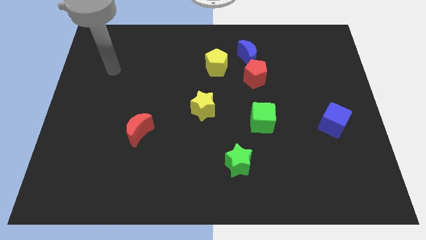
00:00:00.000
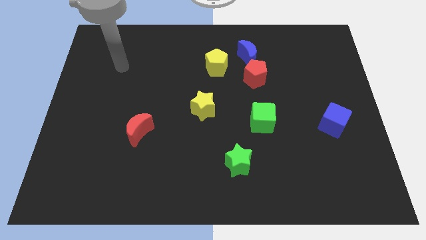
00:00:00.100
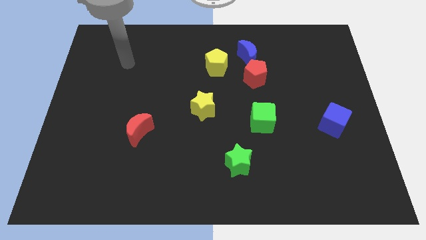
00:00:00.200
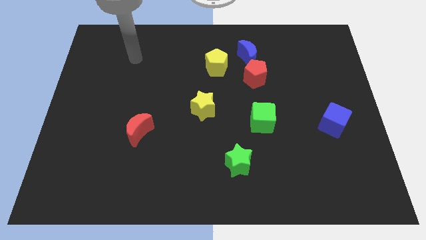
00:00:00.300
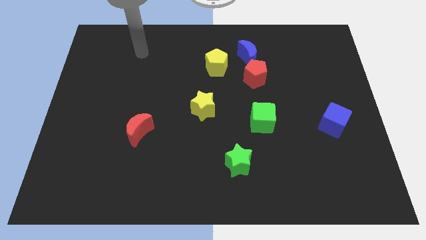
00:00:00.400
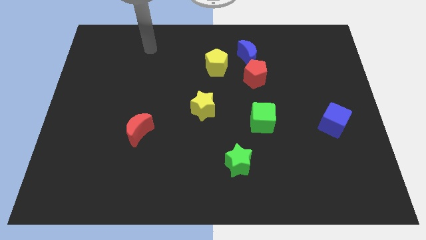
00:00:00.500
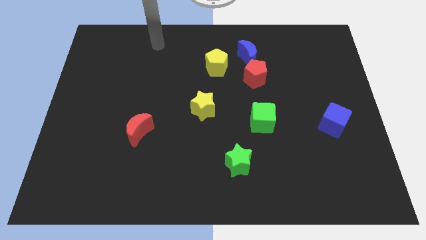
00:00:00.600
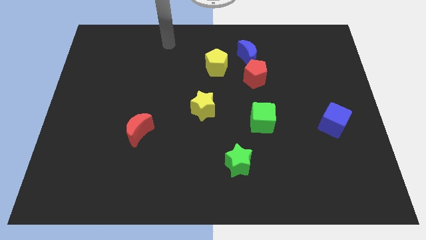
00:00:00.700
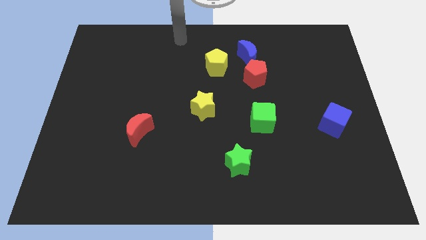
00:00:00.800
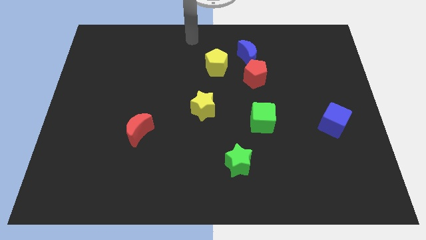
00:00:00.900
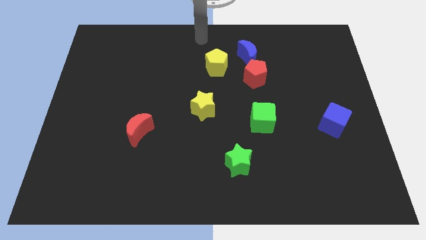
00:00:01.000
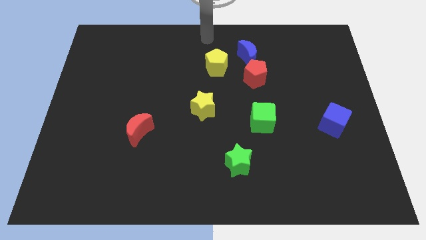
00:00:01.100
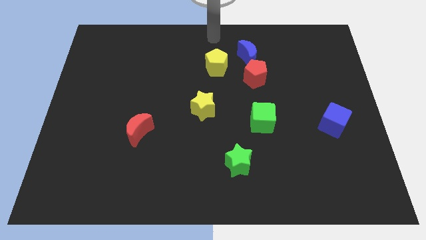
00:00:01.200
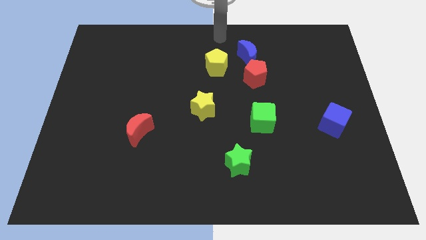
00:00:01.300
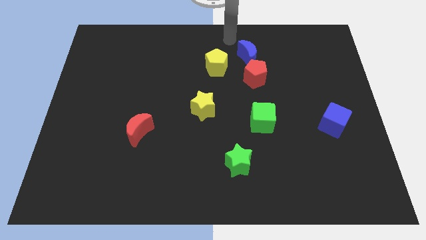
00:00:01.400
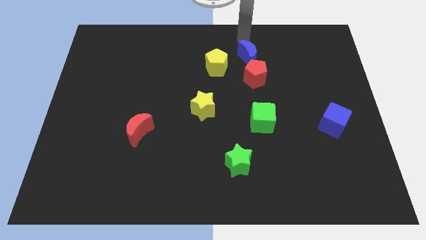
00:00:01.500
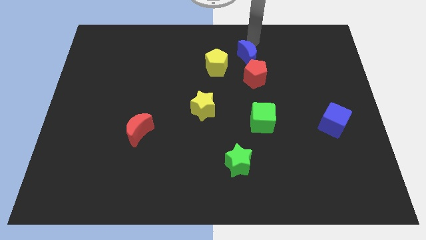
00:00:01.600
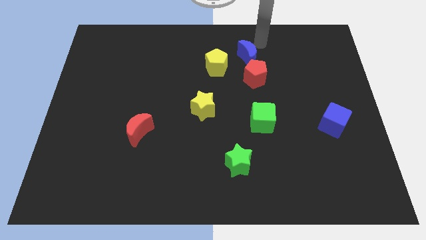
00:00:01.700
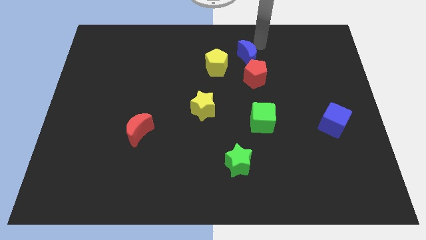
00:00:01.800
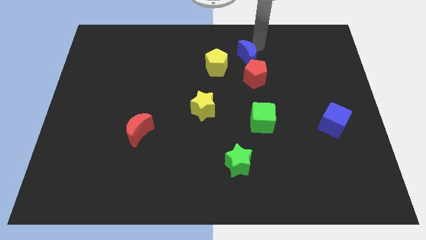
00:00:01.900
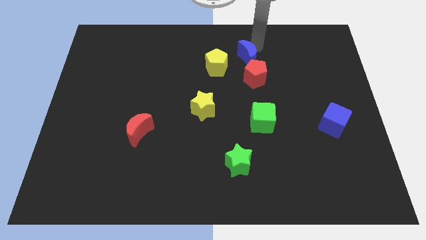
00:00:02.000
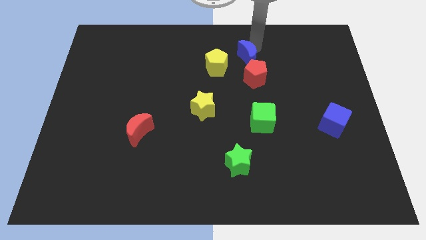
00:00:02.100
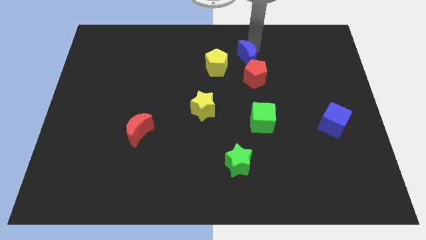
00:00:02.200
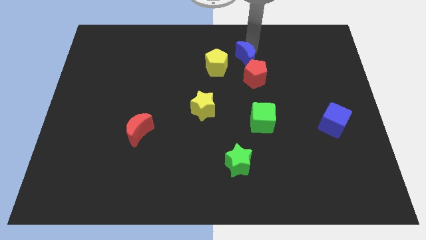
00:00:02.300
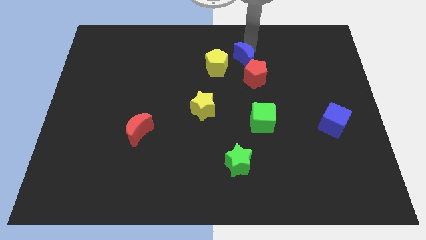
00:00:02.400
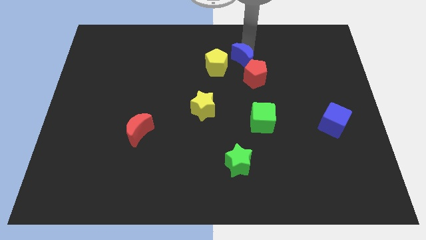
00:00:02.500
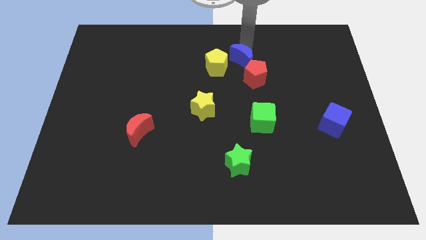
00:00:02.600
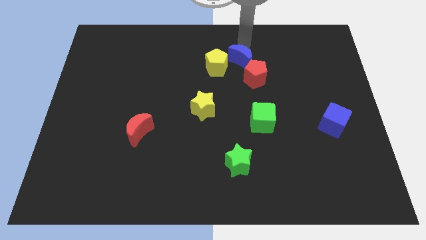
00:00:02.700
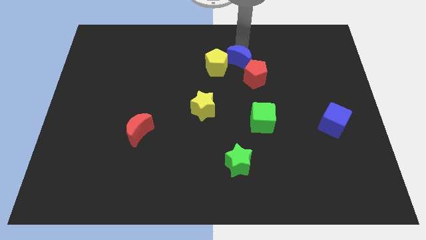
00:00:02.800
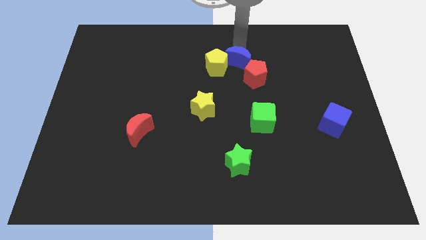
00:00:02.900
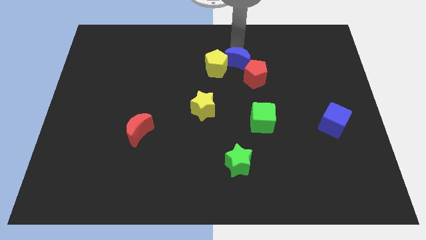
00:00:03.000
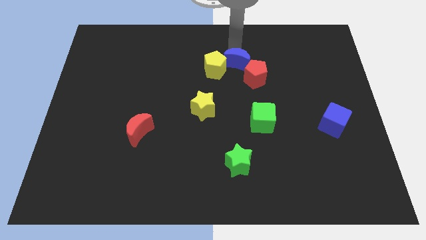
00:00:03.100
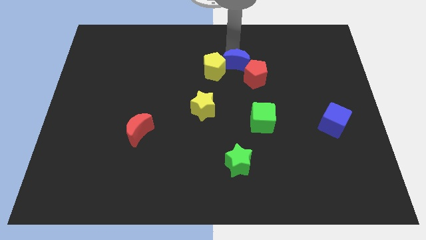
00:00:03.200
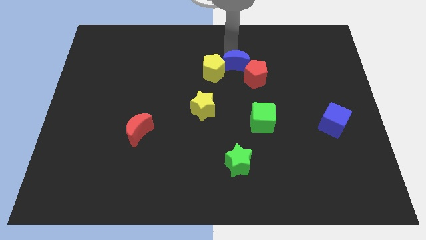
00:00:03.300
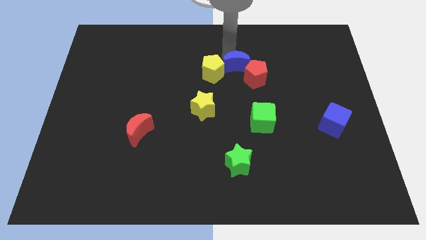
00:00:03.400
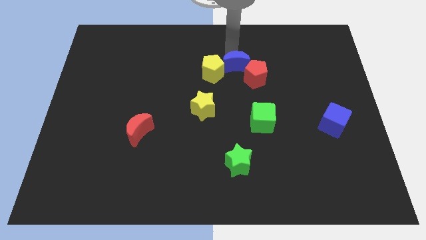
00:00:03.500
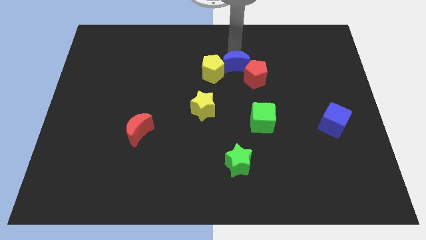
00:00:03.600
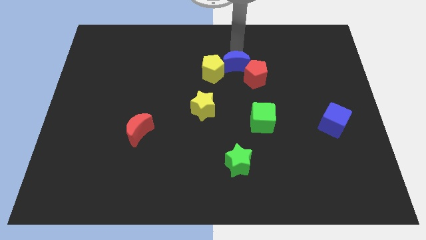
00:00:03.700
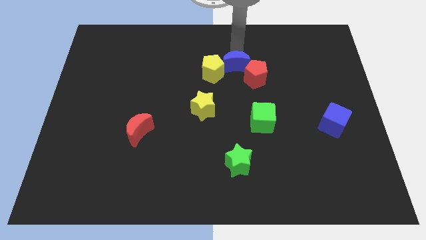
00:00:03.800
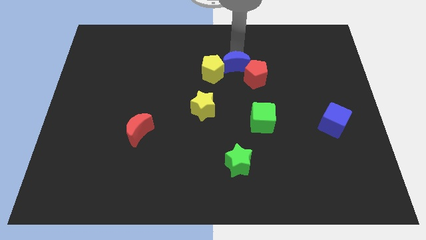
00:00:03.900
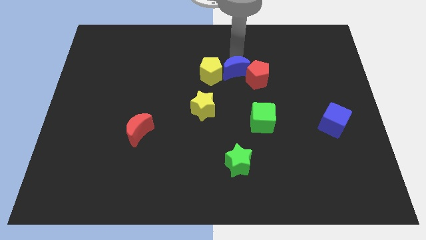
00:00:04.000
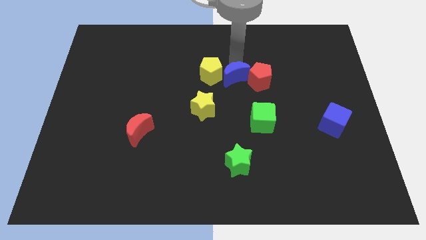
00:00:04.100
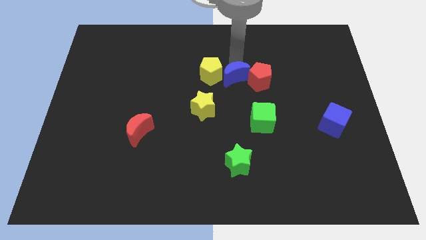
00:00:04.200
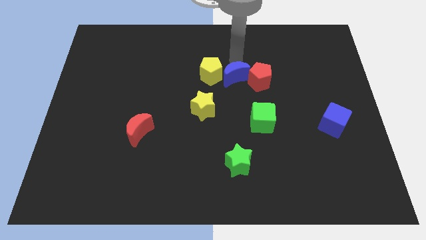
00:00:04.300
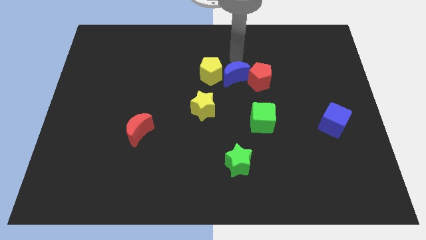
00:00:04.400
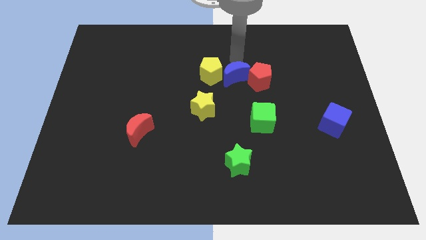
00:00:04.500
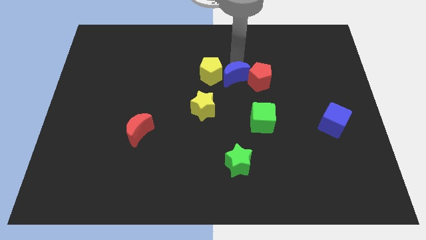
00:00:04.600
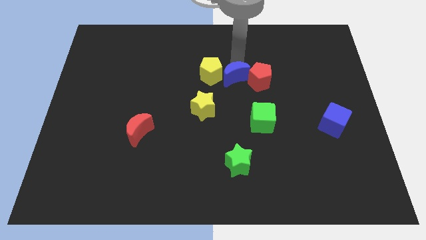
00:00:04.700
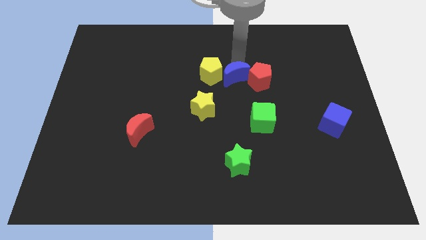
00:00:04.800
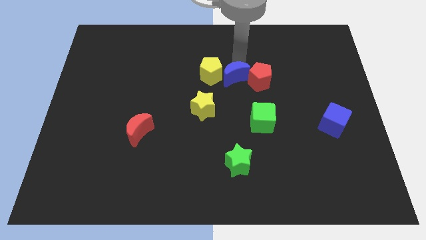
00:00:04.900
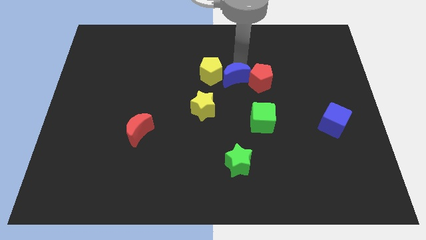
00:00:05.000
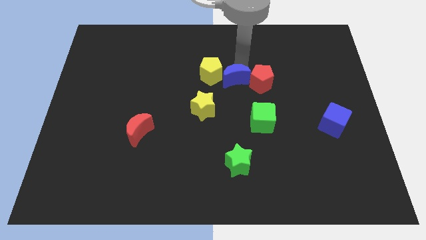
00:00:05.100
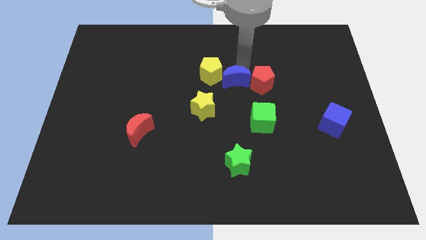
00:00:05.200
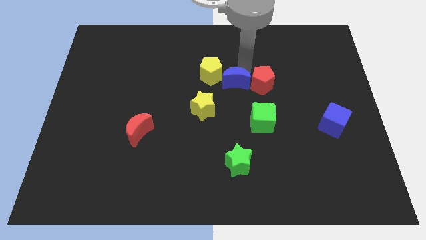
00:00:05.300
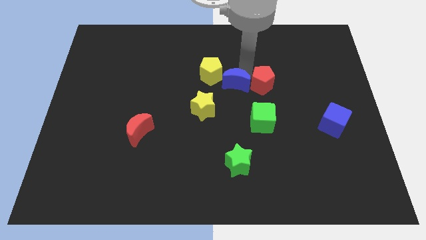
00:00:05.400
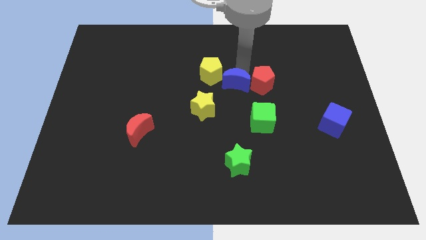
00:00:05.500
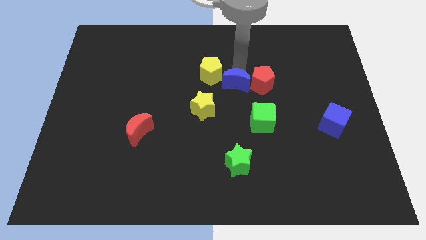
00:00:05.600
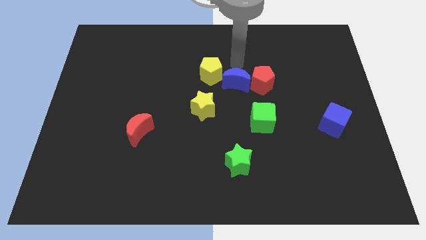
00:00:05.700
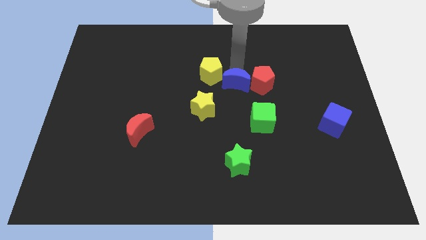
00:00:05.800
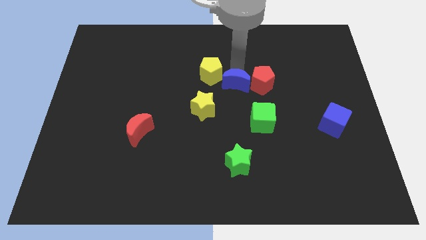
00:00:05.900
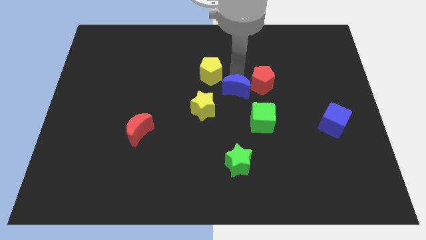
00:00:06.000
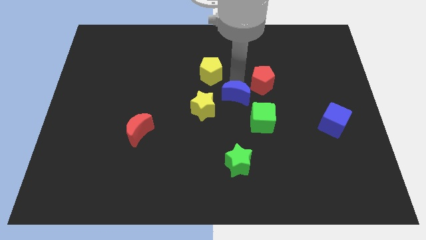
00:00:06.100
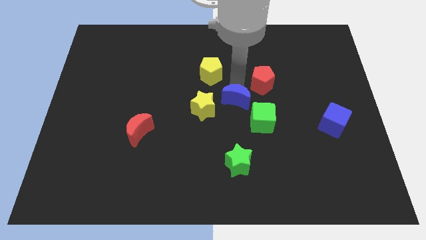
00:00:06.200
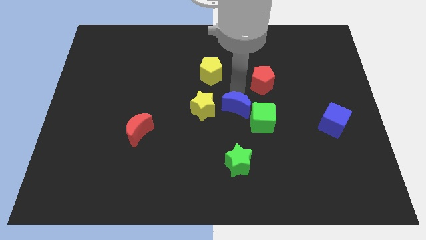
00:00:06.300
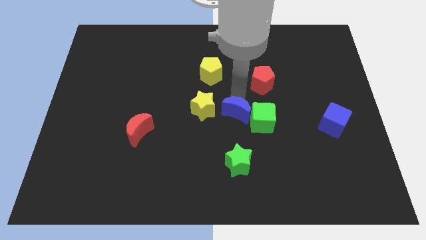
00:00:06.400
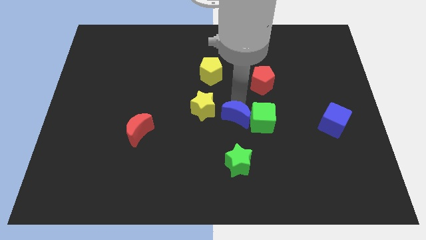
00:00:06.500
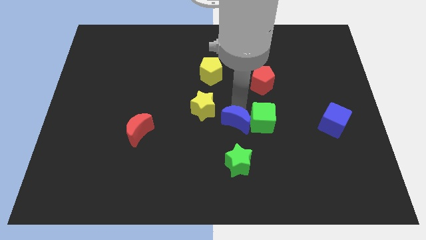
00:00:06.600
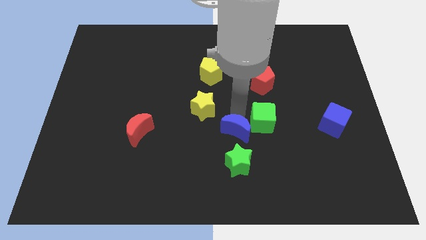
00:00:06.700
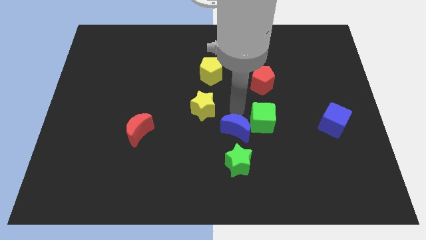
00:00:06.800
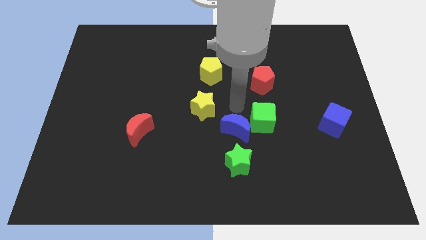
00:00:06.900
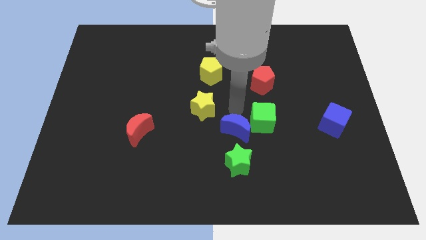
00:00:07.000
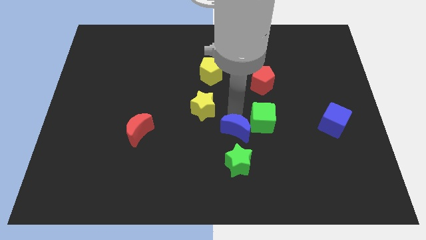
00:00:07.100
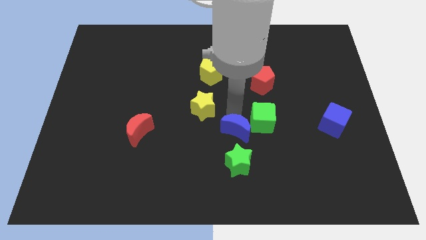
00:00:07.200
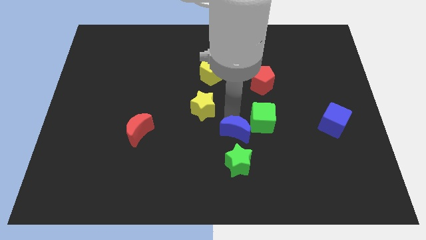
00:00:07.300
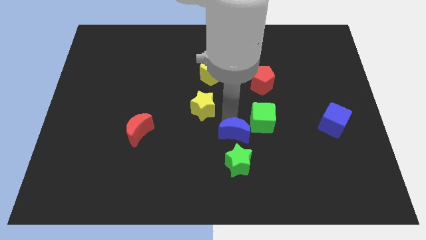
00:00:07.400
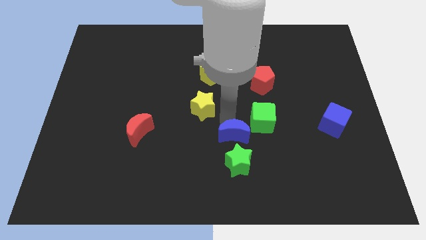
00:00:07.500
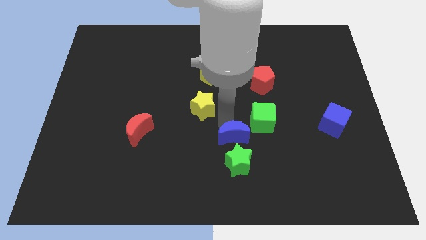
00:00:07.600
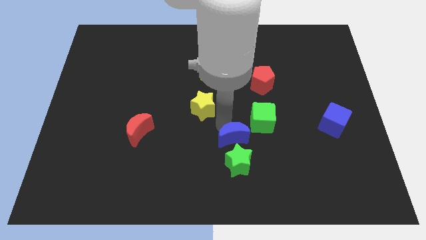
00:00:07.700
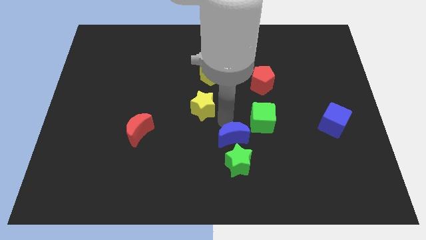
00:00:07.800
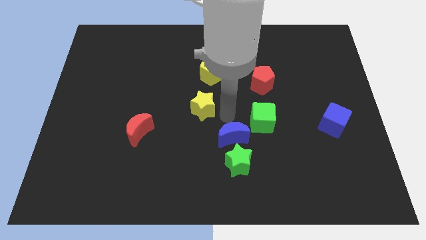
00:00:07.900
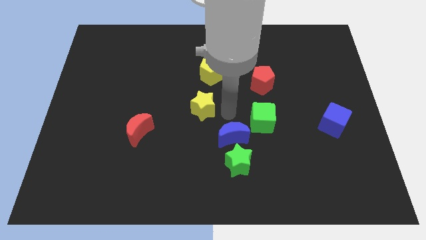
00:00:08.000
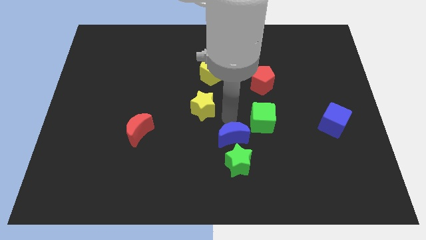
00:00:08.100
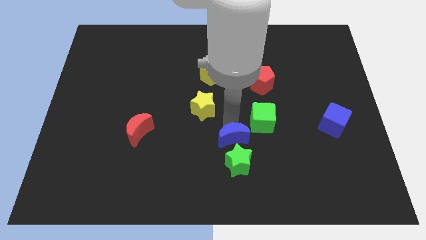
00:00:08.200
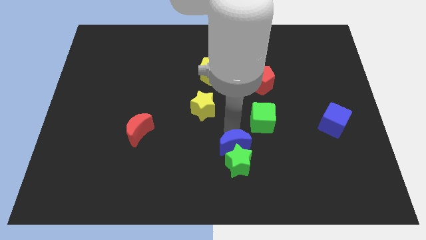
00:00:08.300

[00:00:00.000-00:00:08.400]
slide the blue moon towards the green star
